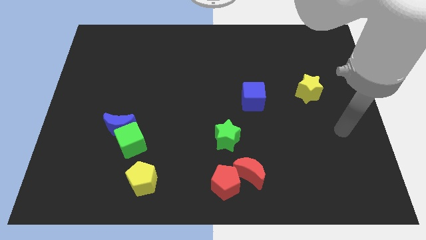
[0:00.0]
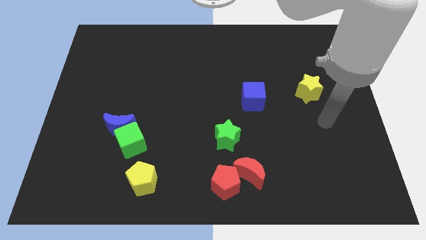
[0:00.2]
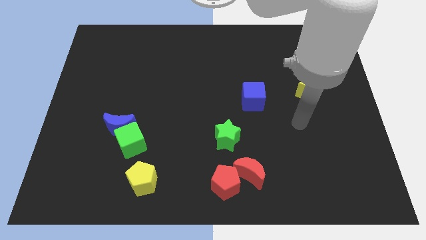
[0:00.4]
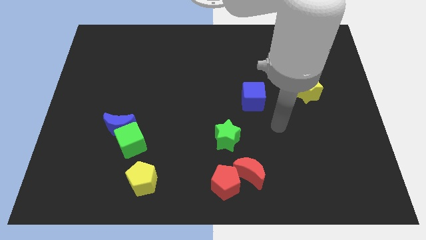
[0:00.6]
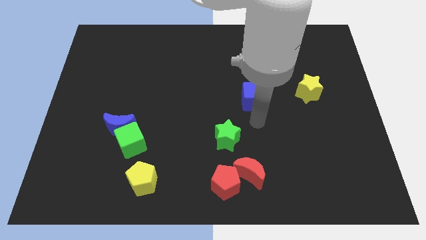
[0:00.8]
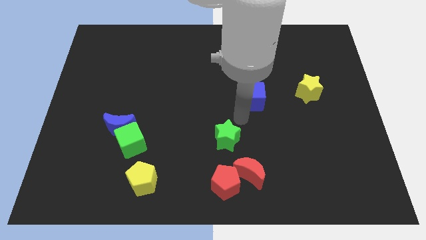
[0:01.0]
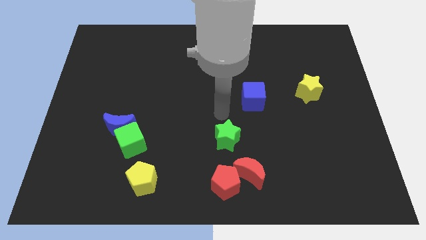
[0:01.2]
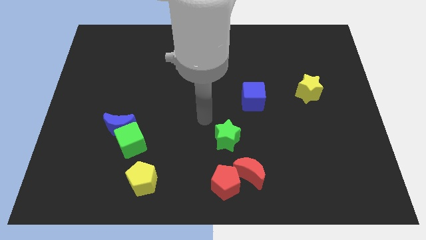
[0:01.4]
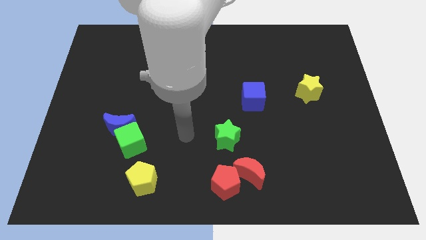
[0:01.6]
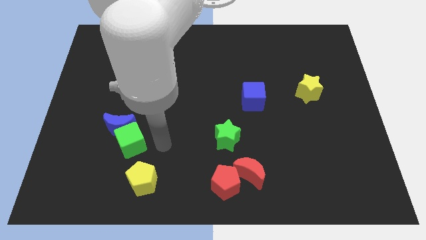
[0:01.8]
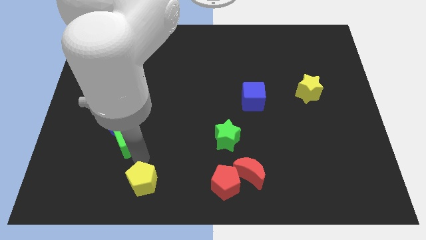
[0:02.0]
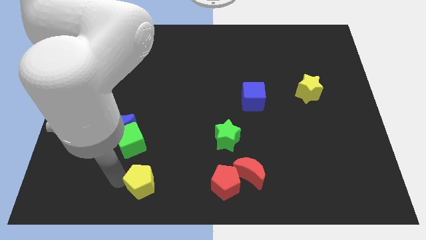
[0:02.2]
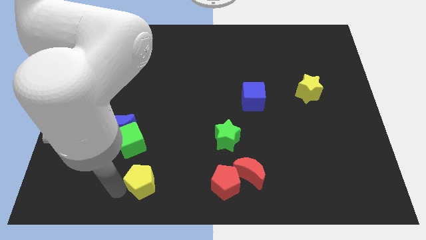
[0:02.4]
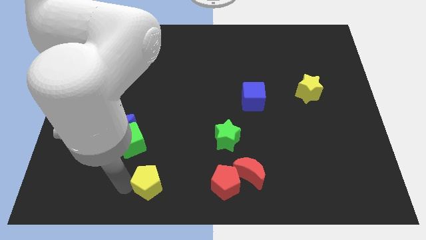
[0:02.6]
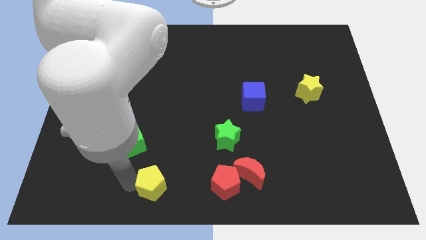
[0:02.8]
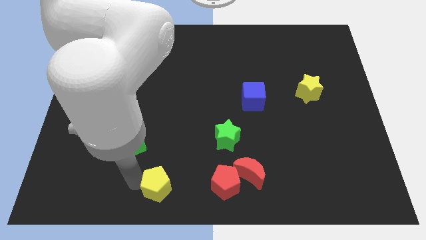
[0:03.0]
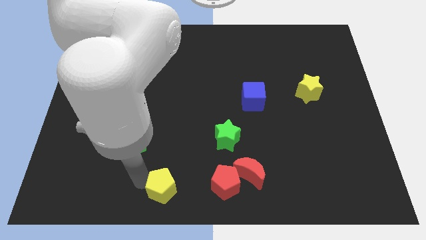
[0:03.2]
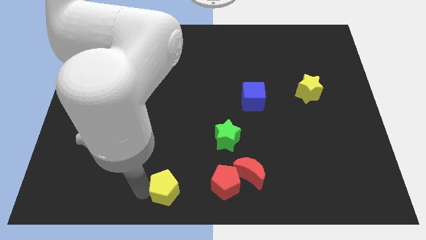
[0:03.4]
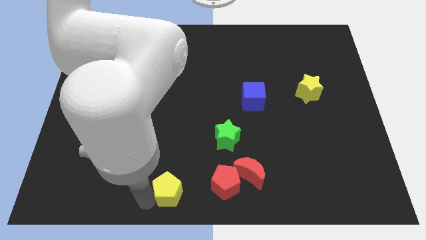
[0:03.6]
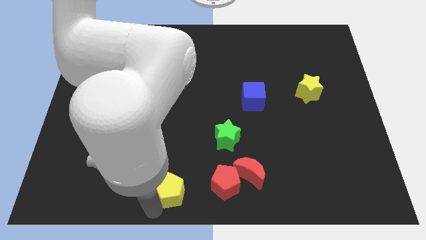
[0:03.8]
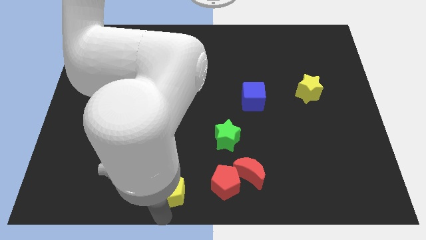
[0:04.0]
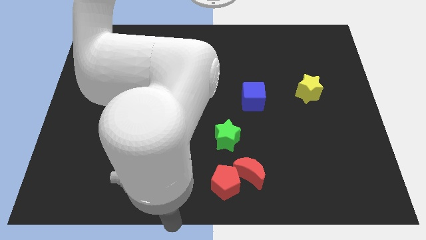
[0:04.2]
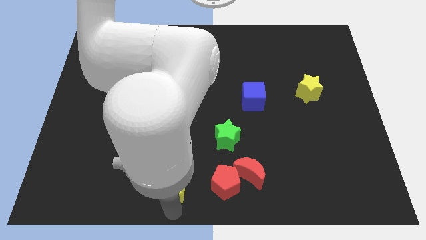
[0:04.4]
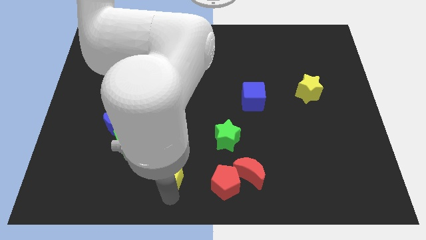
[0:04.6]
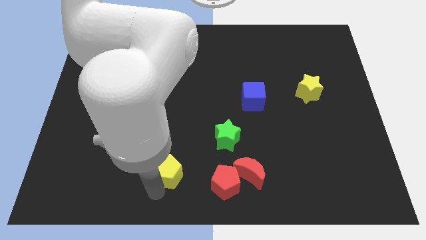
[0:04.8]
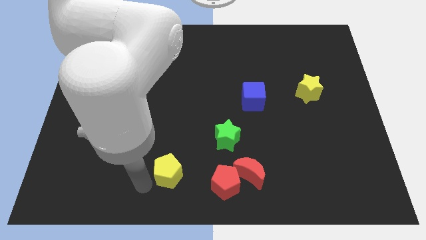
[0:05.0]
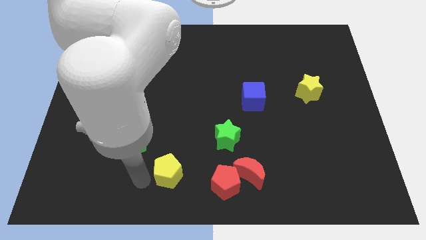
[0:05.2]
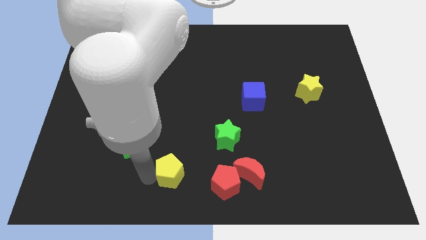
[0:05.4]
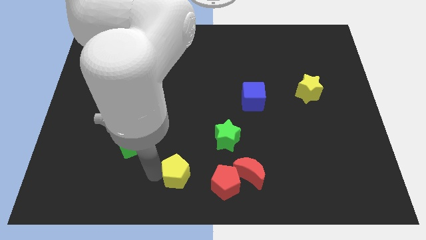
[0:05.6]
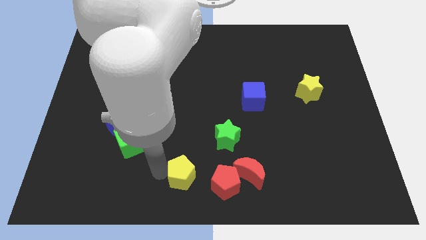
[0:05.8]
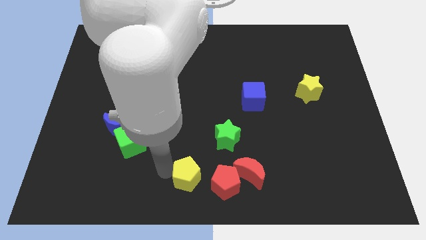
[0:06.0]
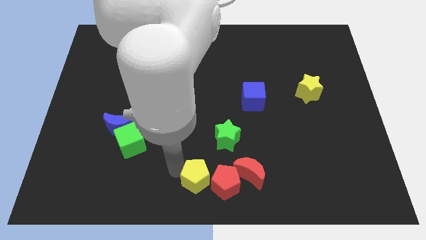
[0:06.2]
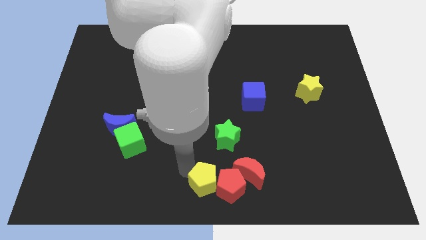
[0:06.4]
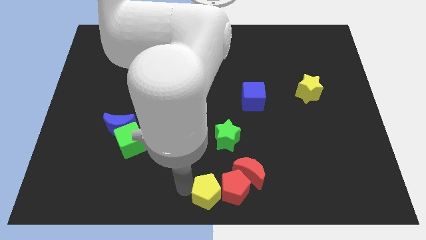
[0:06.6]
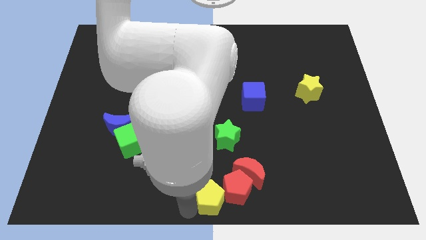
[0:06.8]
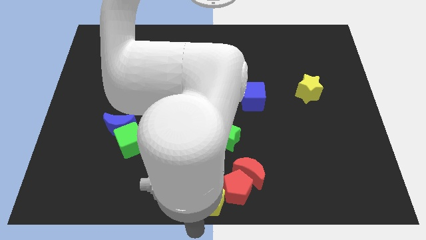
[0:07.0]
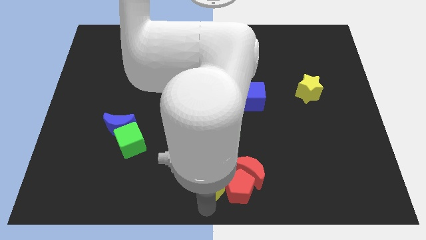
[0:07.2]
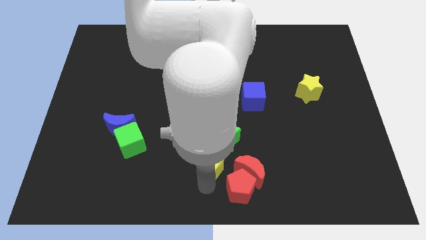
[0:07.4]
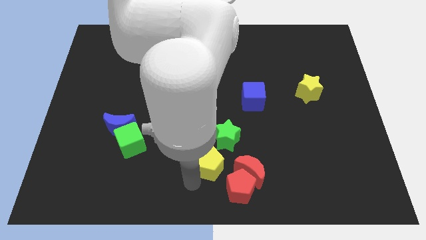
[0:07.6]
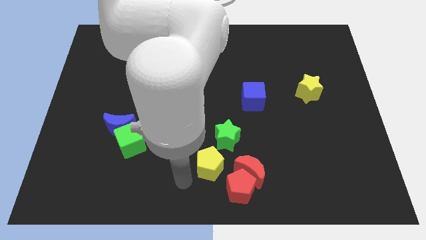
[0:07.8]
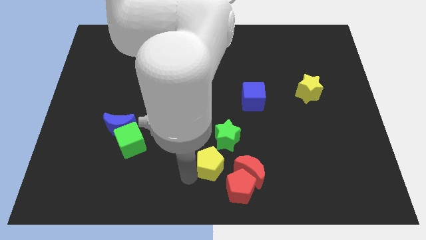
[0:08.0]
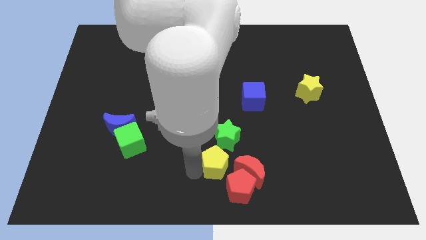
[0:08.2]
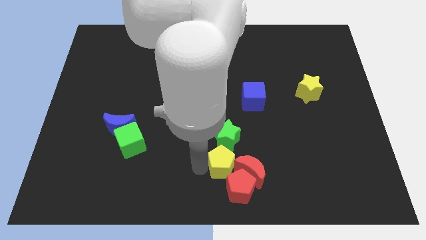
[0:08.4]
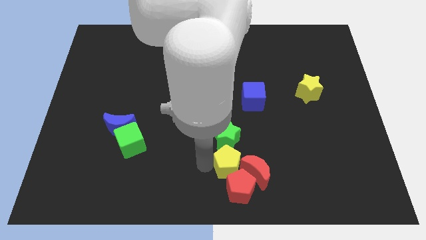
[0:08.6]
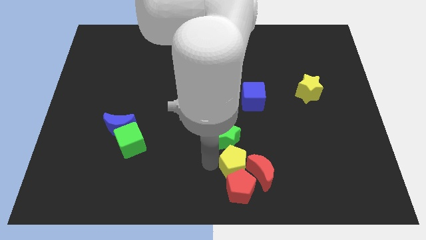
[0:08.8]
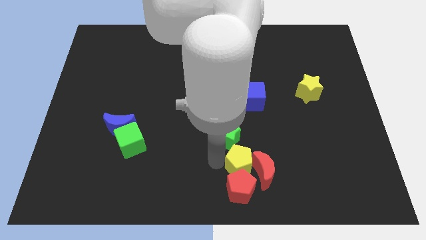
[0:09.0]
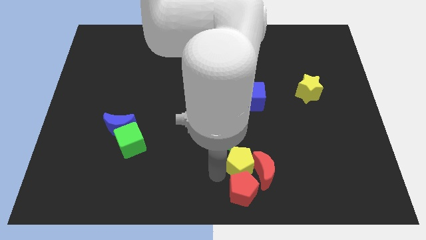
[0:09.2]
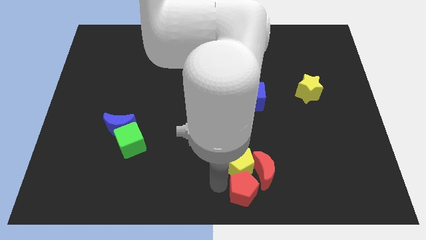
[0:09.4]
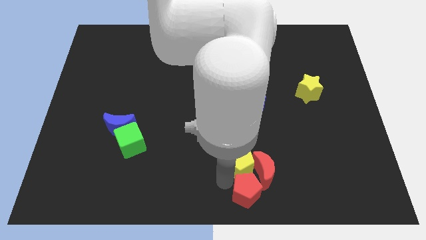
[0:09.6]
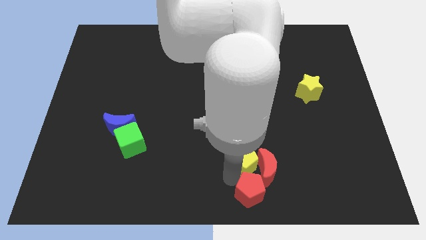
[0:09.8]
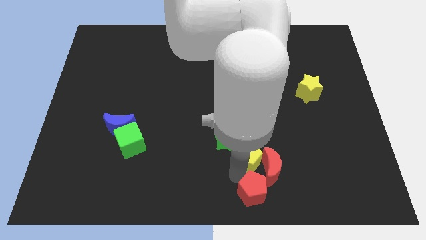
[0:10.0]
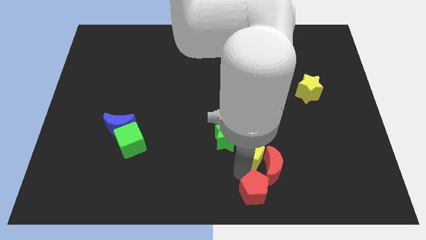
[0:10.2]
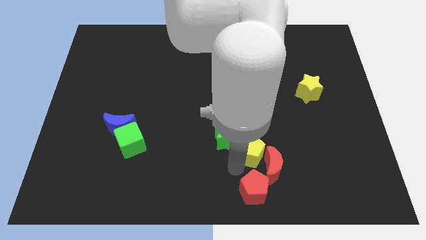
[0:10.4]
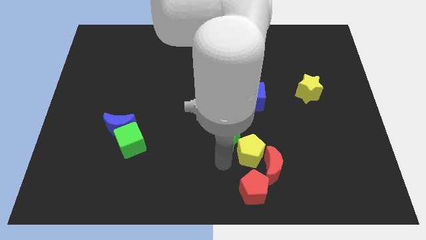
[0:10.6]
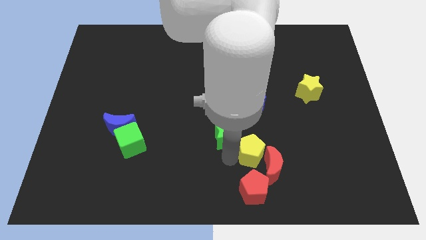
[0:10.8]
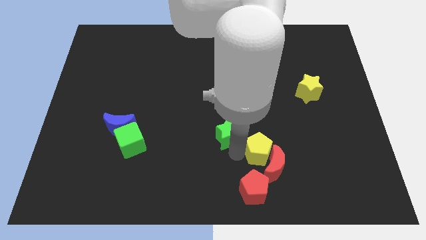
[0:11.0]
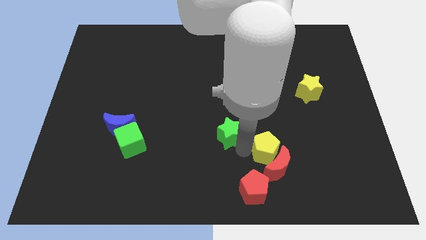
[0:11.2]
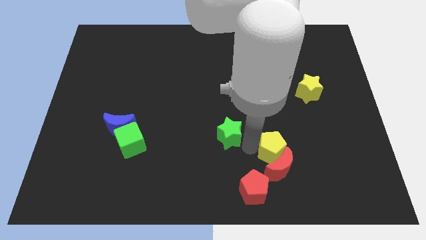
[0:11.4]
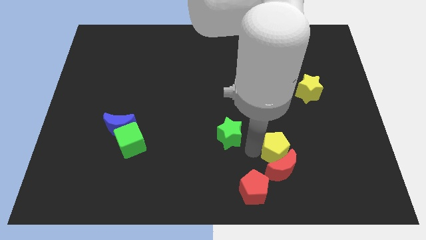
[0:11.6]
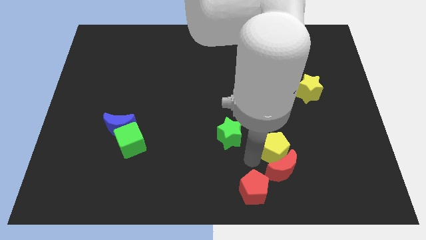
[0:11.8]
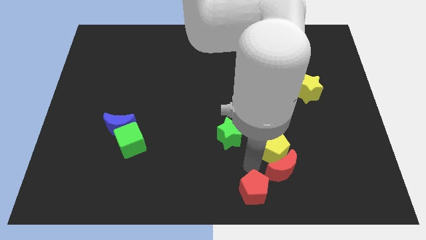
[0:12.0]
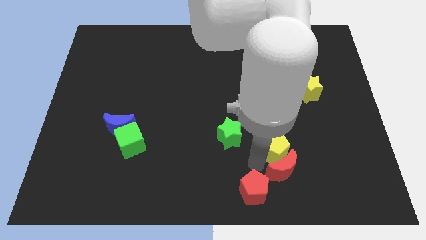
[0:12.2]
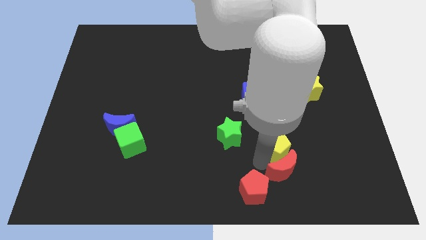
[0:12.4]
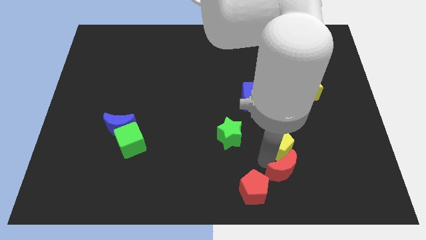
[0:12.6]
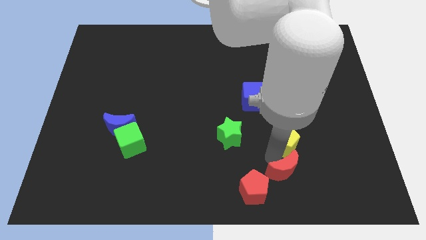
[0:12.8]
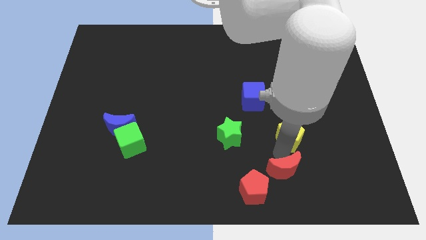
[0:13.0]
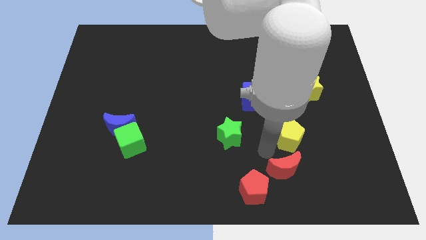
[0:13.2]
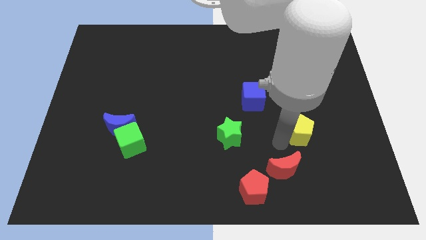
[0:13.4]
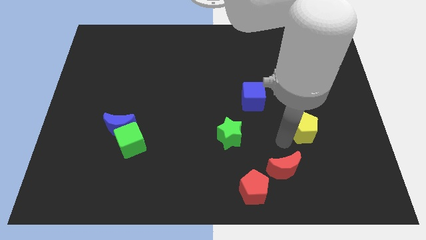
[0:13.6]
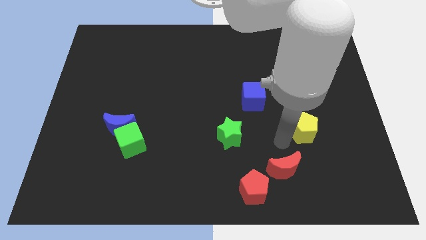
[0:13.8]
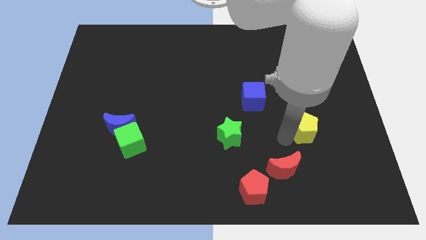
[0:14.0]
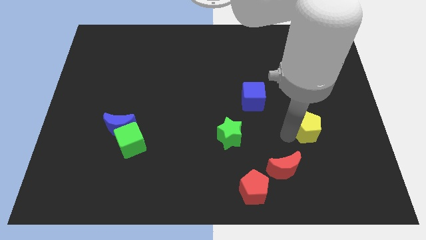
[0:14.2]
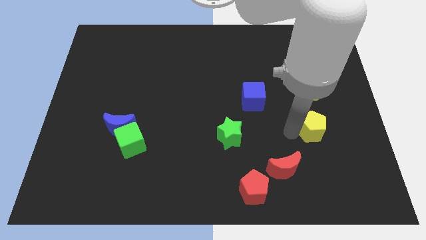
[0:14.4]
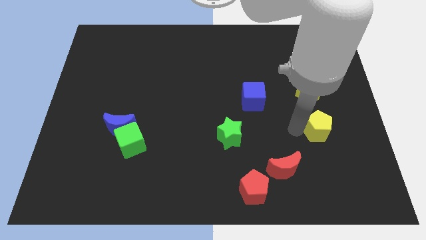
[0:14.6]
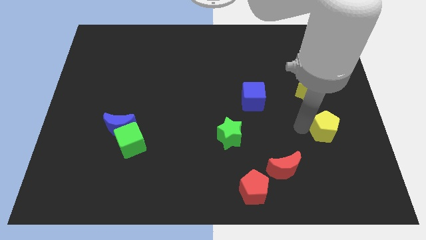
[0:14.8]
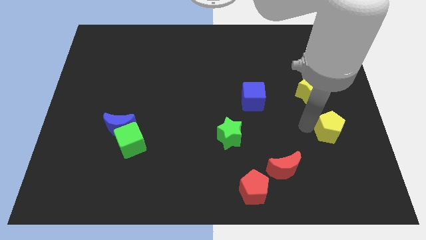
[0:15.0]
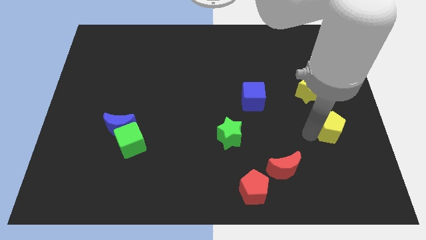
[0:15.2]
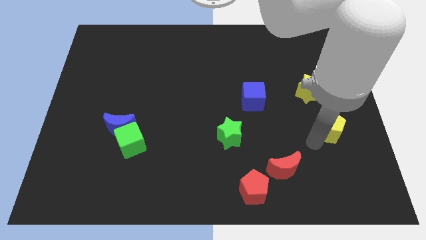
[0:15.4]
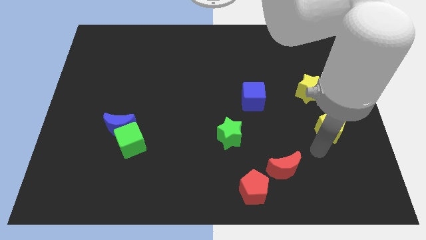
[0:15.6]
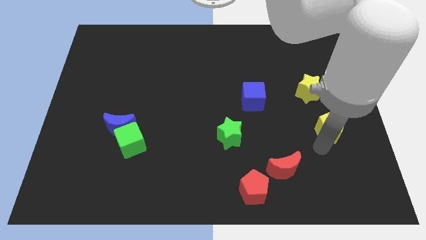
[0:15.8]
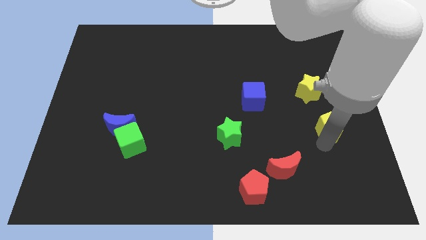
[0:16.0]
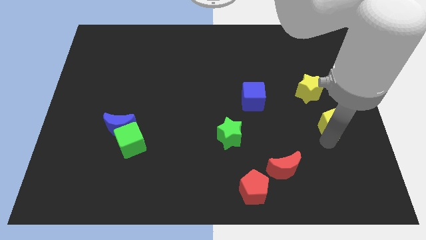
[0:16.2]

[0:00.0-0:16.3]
slide the yellow pentagon to the center right
